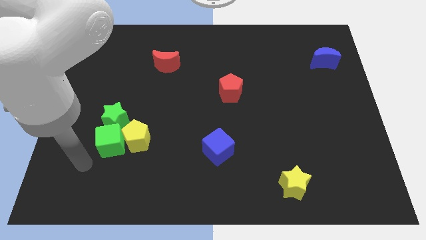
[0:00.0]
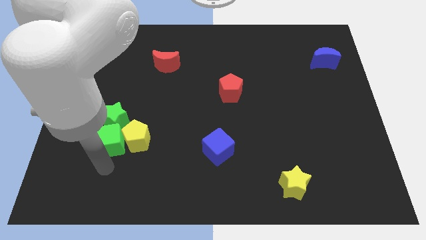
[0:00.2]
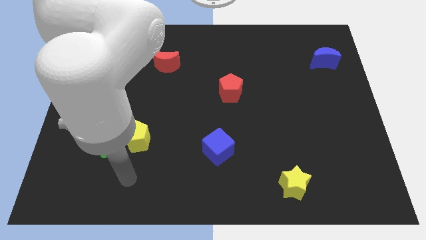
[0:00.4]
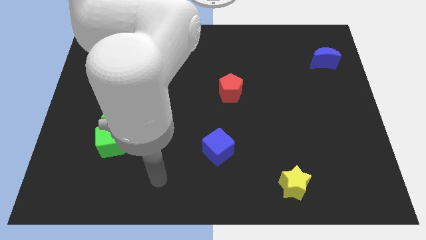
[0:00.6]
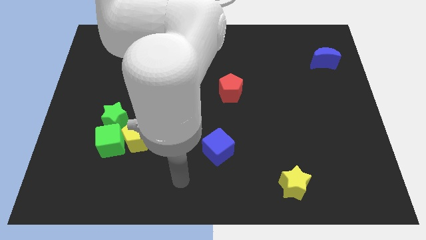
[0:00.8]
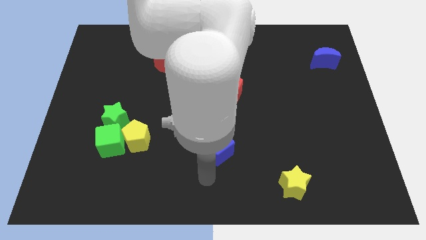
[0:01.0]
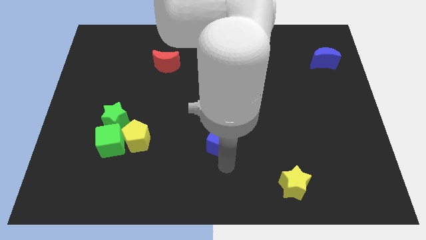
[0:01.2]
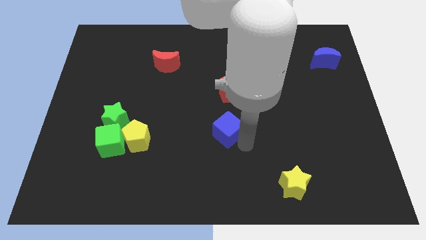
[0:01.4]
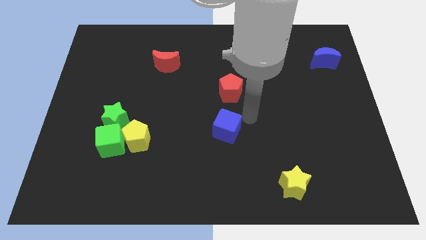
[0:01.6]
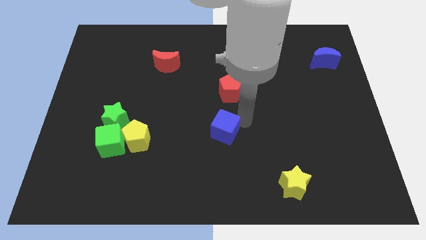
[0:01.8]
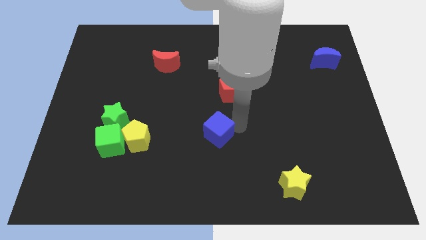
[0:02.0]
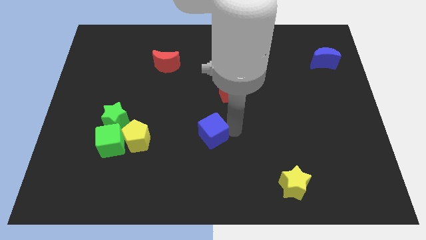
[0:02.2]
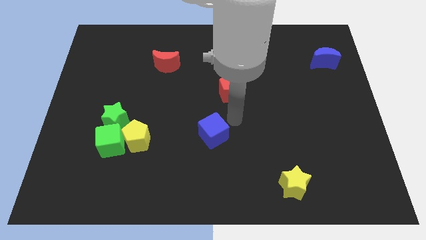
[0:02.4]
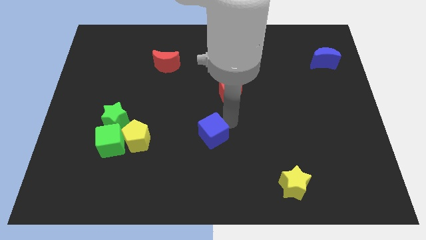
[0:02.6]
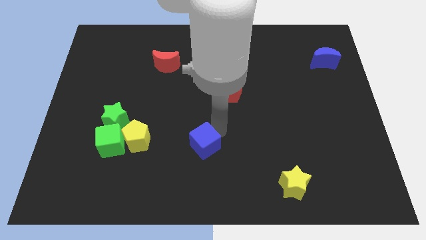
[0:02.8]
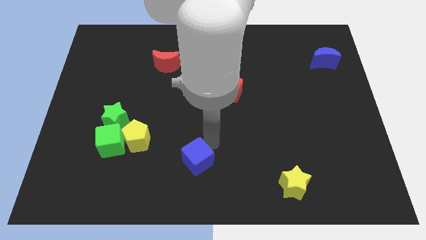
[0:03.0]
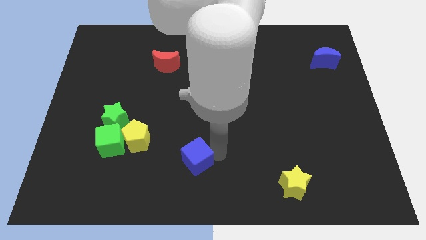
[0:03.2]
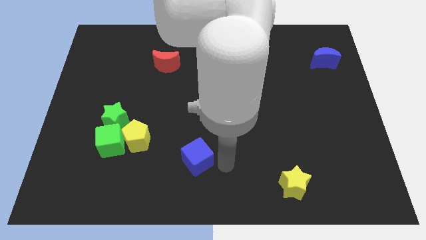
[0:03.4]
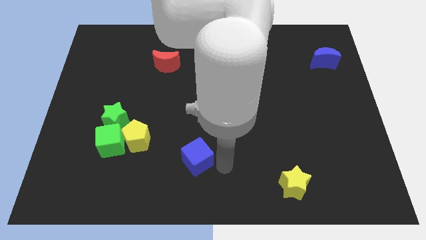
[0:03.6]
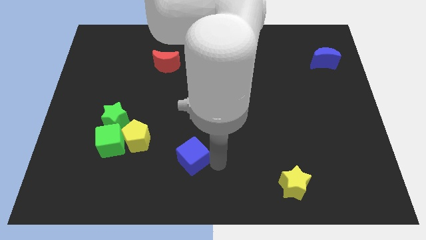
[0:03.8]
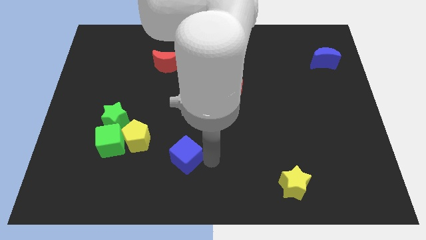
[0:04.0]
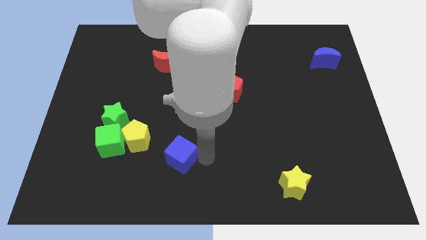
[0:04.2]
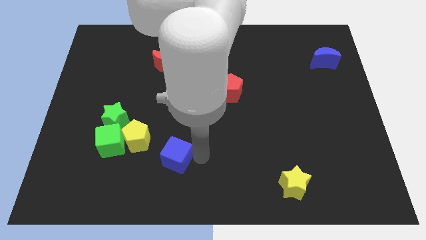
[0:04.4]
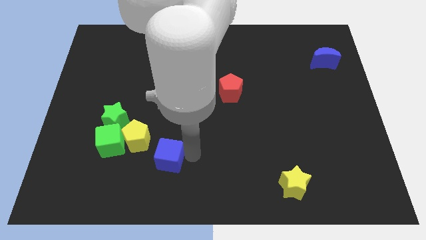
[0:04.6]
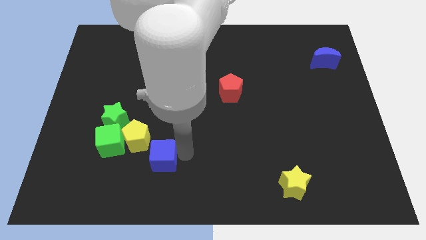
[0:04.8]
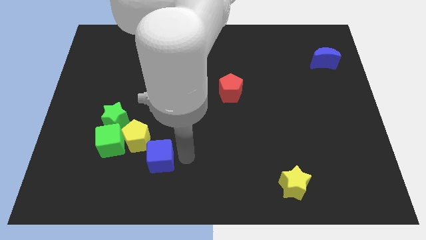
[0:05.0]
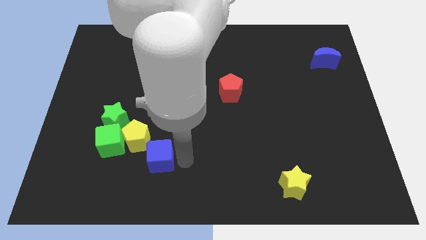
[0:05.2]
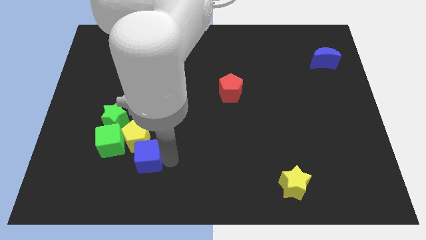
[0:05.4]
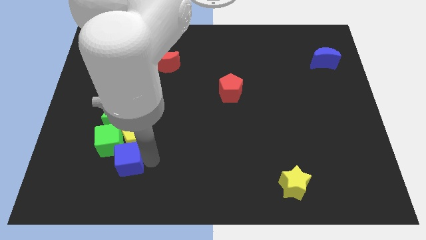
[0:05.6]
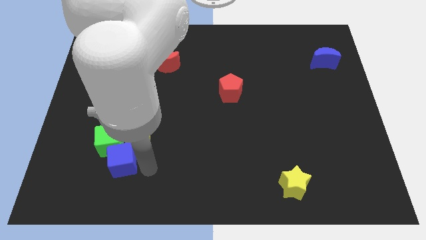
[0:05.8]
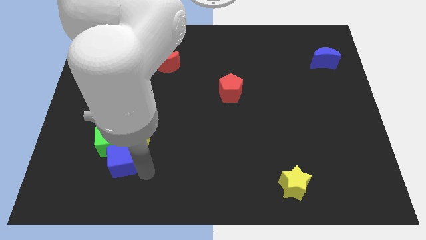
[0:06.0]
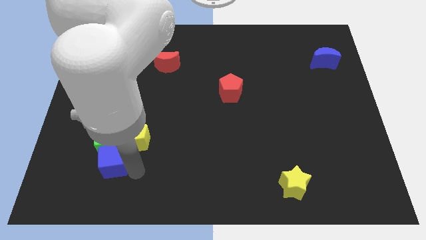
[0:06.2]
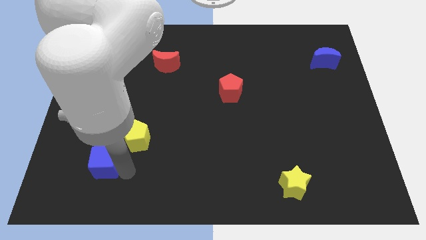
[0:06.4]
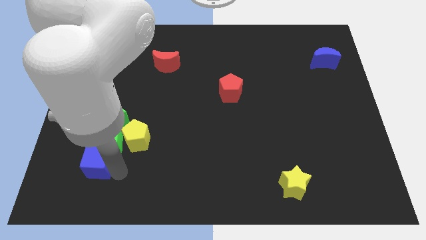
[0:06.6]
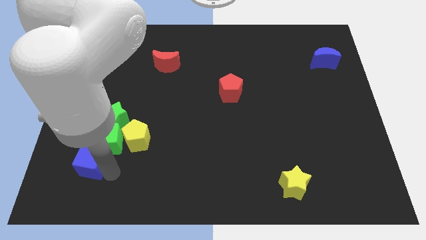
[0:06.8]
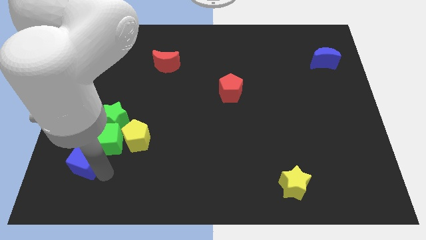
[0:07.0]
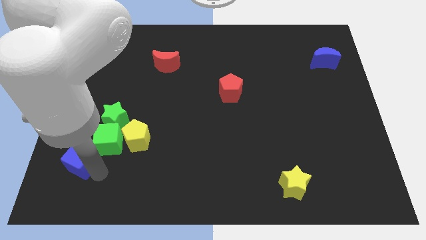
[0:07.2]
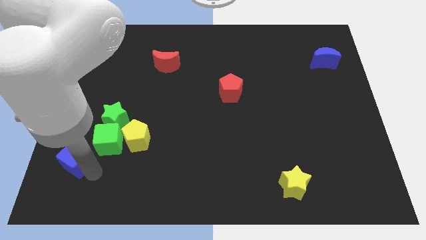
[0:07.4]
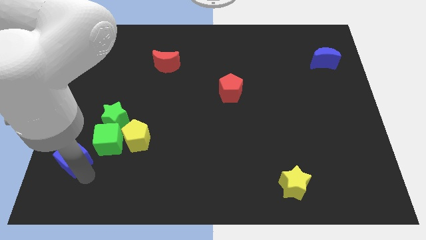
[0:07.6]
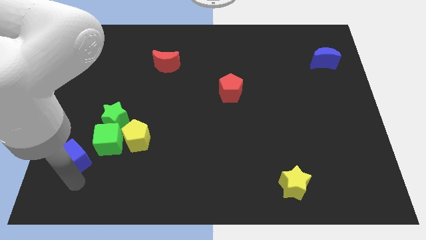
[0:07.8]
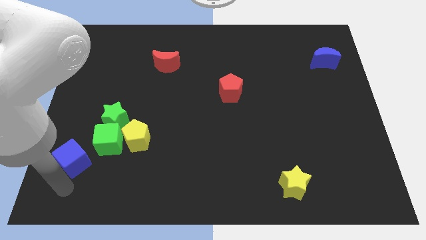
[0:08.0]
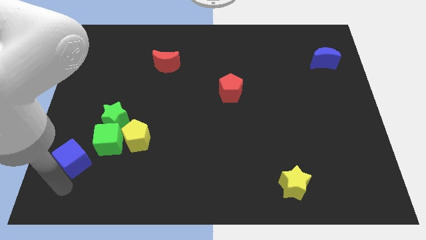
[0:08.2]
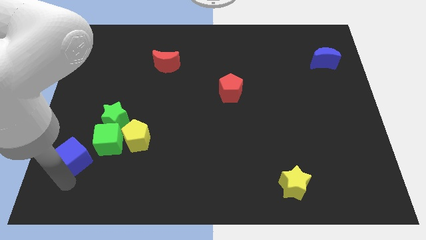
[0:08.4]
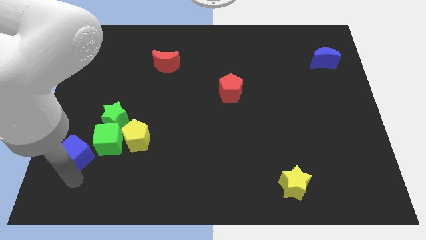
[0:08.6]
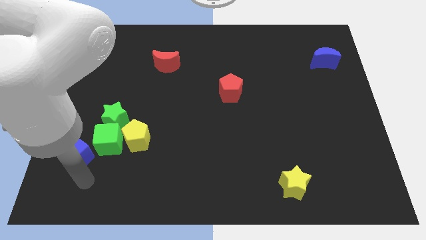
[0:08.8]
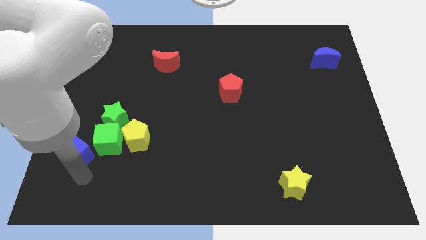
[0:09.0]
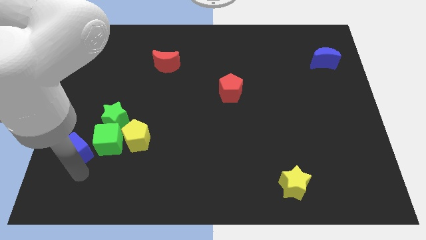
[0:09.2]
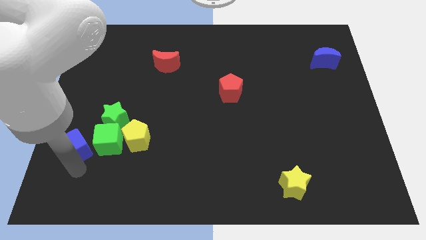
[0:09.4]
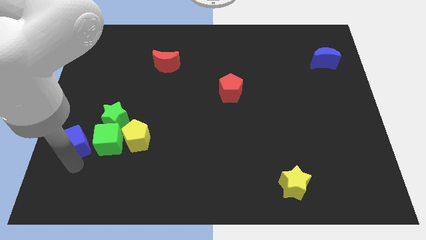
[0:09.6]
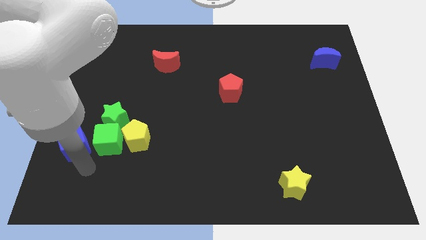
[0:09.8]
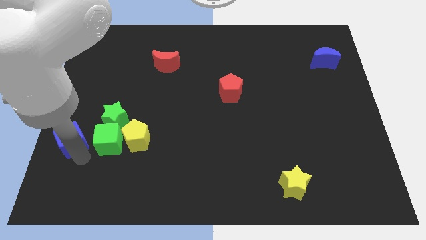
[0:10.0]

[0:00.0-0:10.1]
move the blue cube to the left side of the board

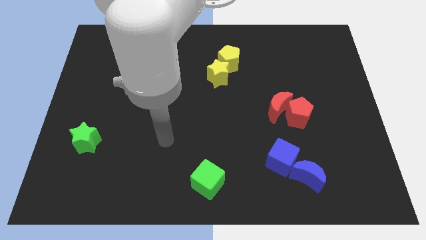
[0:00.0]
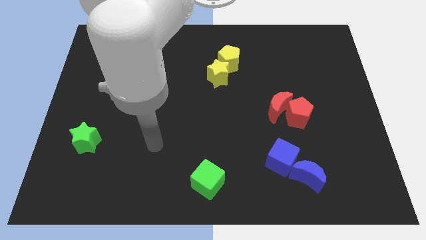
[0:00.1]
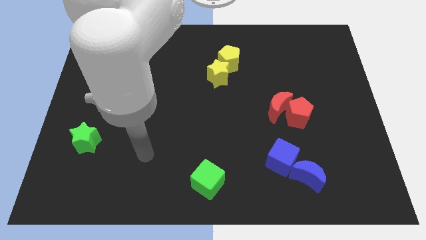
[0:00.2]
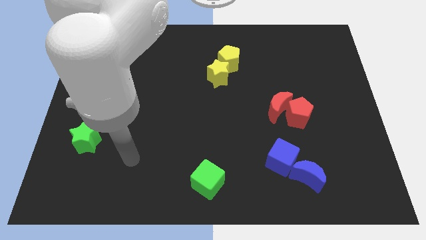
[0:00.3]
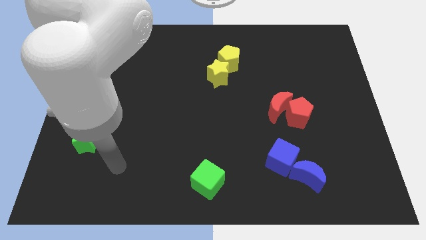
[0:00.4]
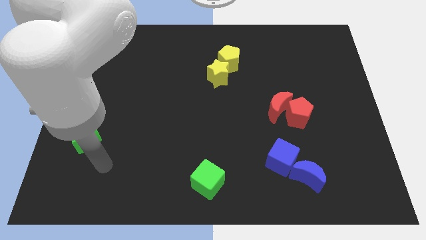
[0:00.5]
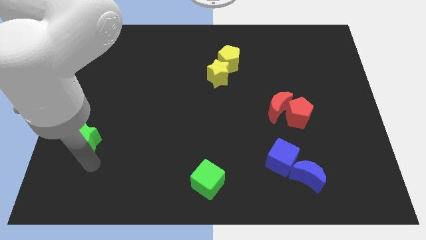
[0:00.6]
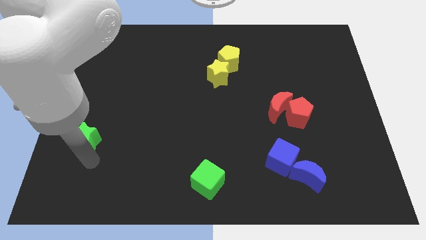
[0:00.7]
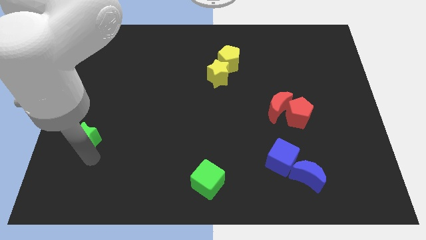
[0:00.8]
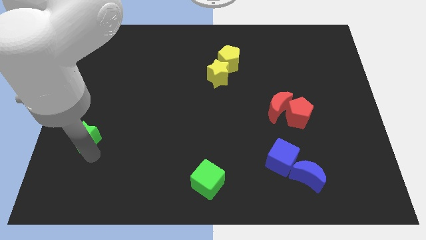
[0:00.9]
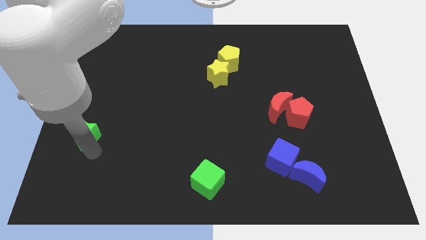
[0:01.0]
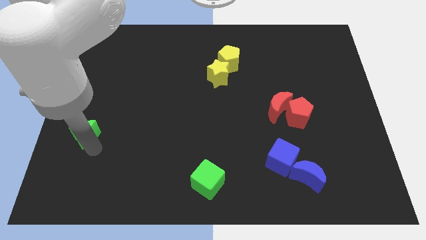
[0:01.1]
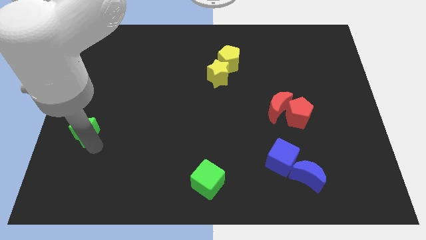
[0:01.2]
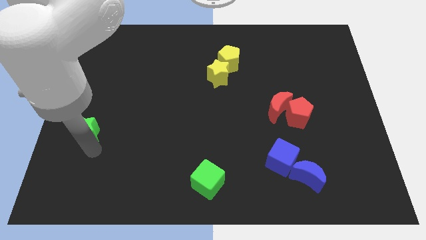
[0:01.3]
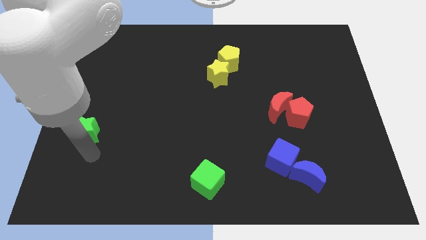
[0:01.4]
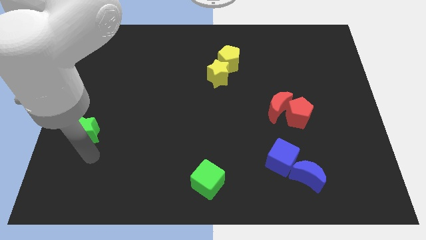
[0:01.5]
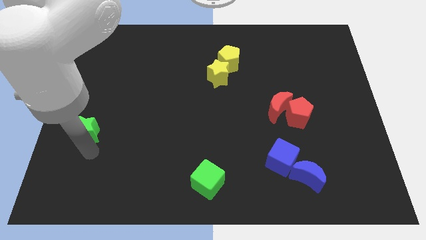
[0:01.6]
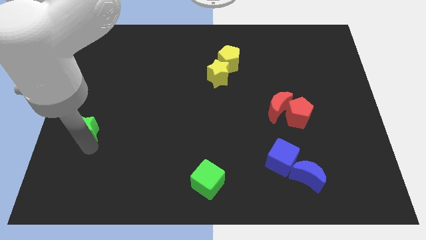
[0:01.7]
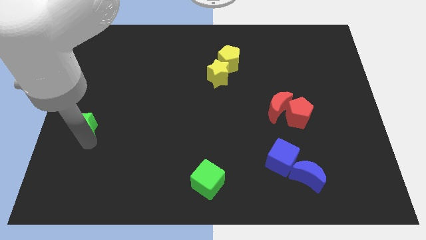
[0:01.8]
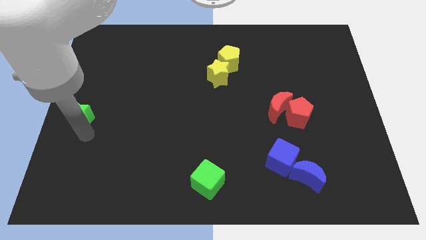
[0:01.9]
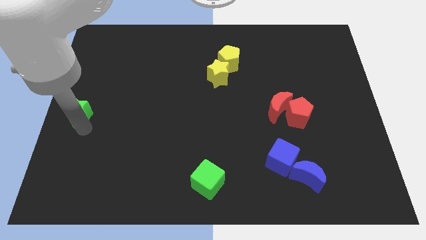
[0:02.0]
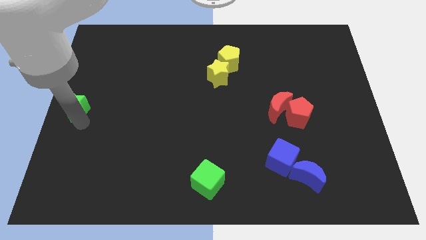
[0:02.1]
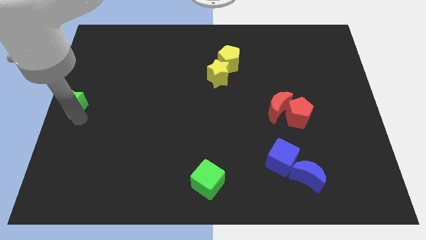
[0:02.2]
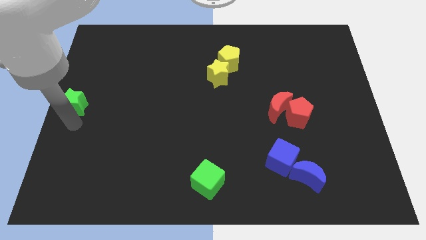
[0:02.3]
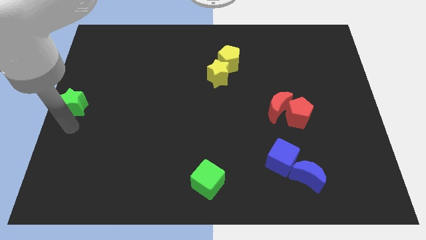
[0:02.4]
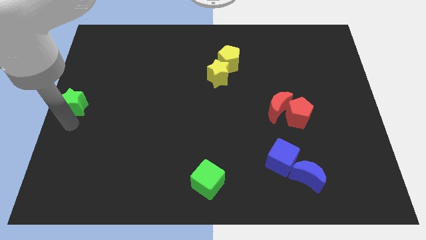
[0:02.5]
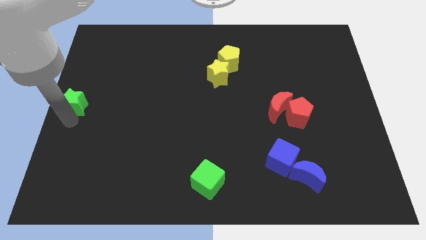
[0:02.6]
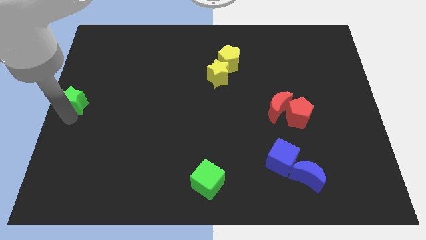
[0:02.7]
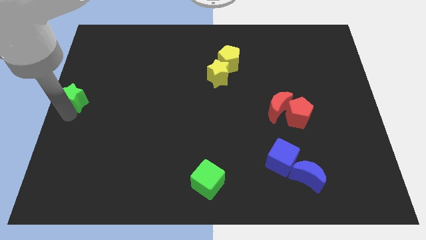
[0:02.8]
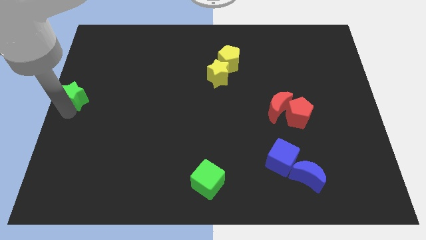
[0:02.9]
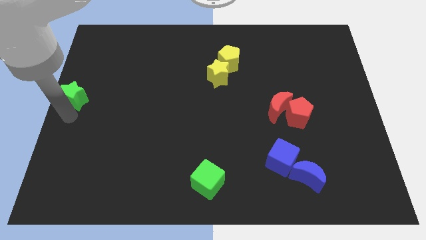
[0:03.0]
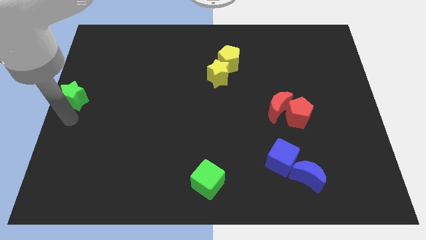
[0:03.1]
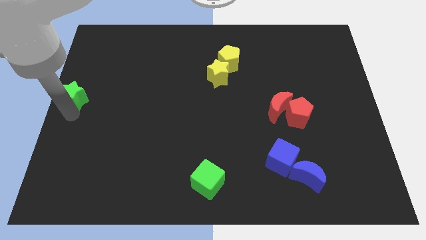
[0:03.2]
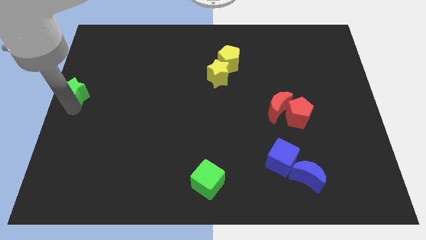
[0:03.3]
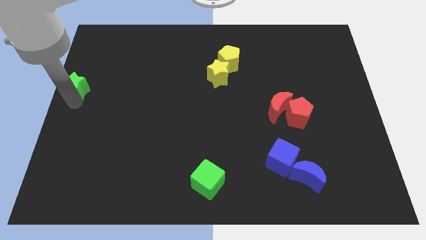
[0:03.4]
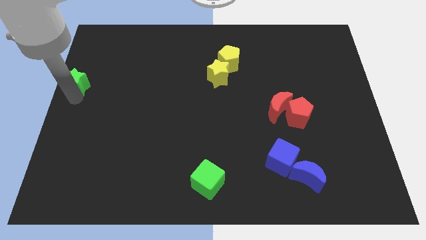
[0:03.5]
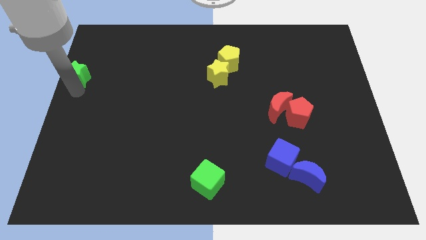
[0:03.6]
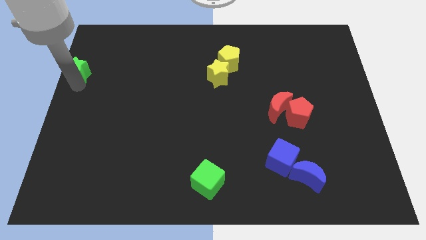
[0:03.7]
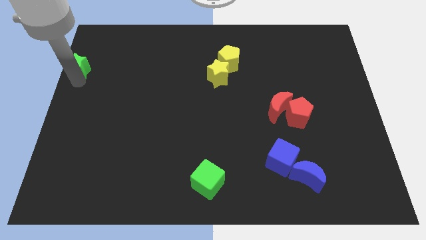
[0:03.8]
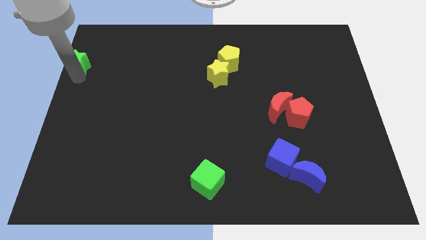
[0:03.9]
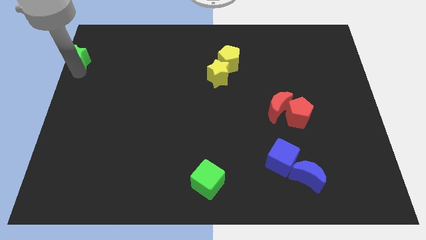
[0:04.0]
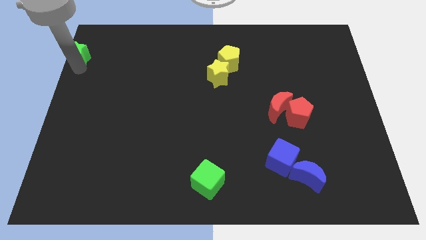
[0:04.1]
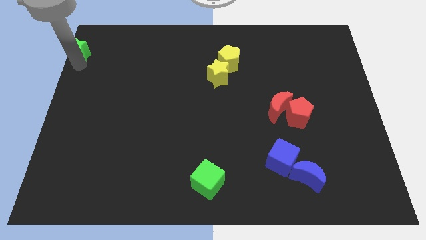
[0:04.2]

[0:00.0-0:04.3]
move the green star to the top left of the board
